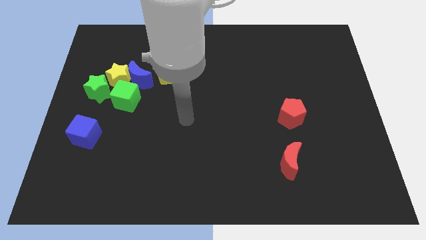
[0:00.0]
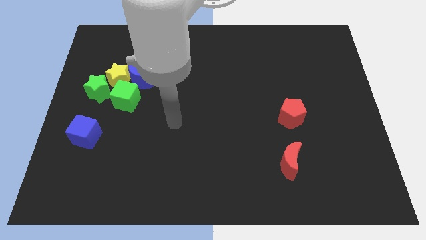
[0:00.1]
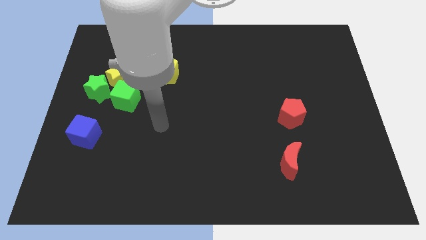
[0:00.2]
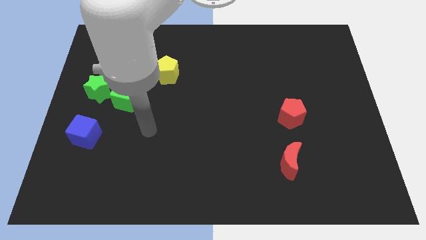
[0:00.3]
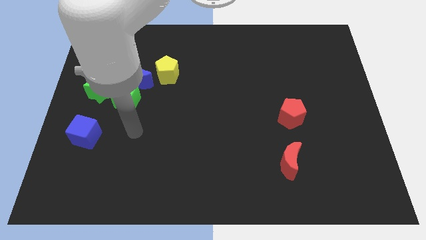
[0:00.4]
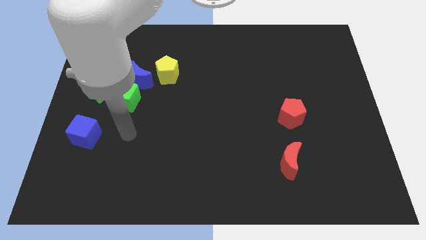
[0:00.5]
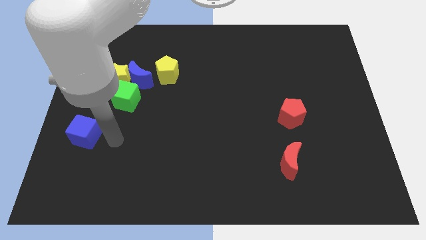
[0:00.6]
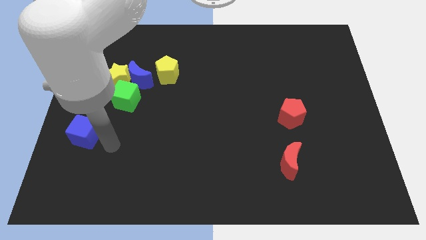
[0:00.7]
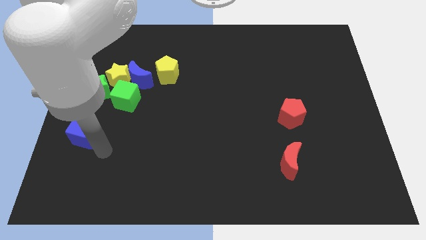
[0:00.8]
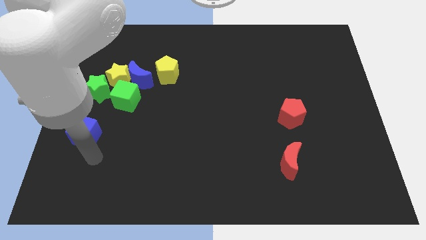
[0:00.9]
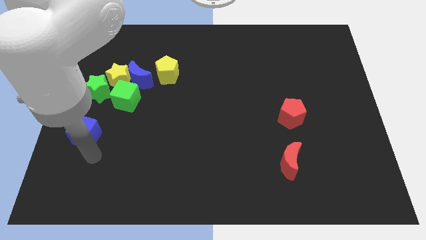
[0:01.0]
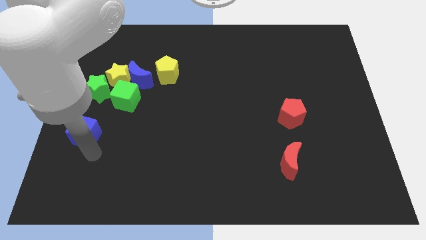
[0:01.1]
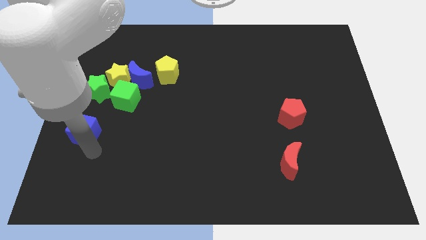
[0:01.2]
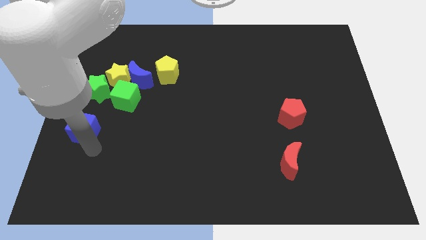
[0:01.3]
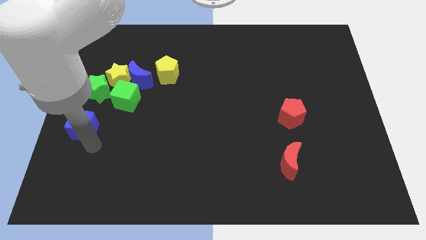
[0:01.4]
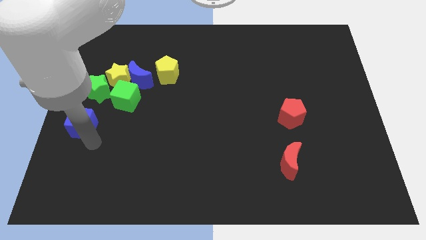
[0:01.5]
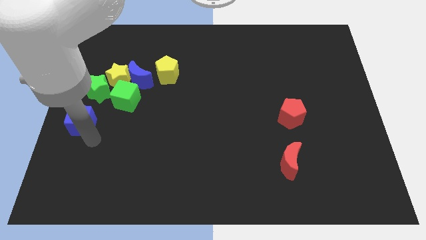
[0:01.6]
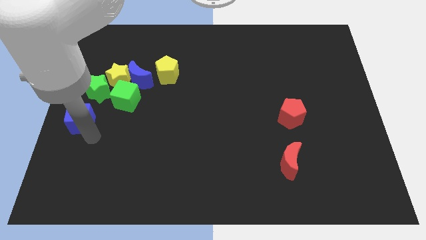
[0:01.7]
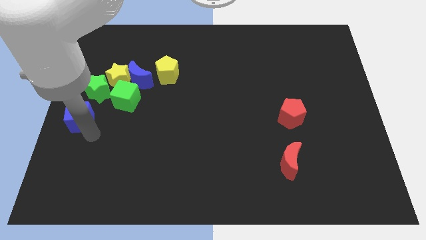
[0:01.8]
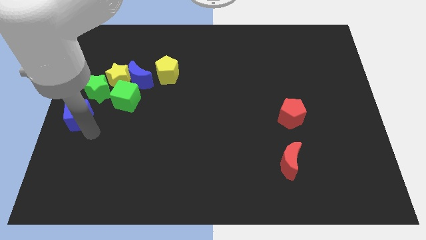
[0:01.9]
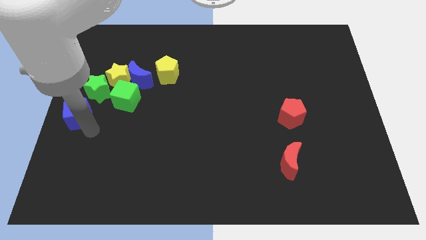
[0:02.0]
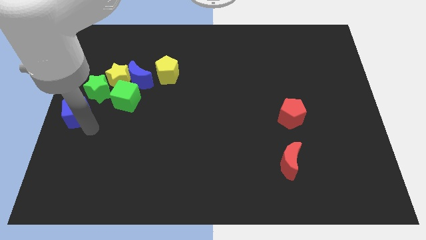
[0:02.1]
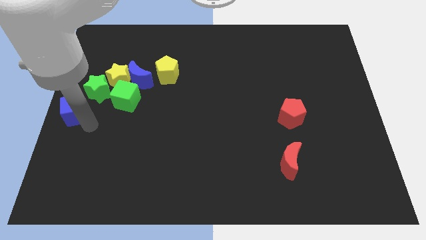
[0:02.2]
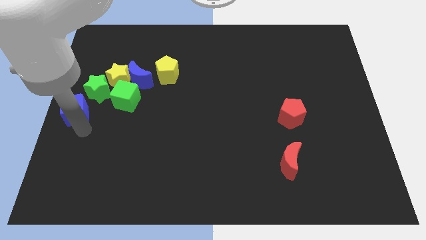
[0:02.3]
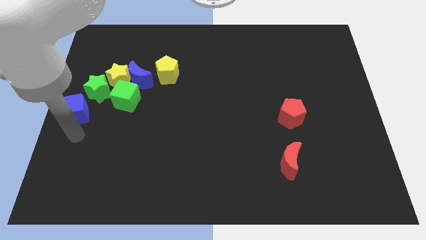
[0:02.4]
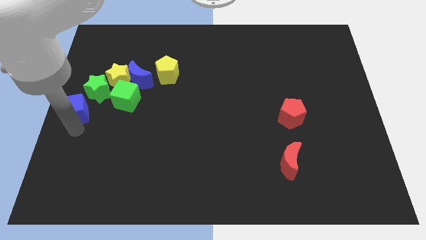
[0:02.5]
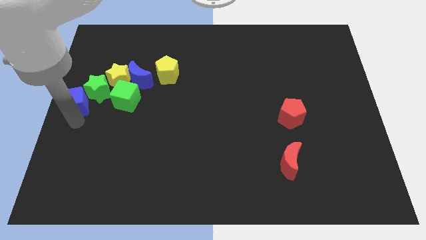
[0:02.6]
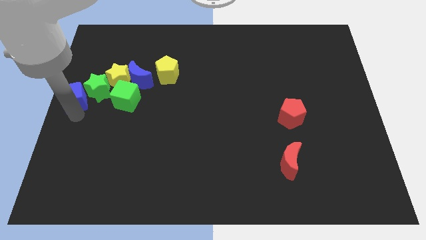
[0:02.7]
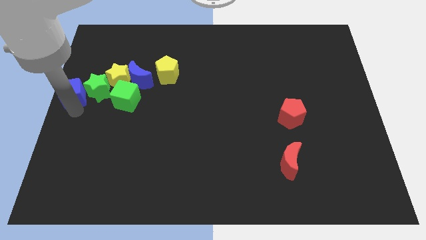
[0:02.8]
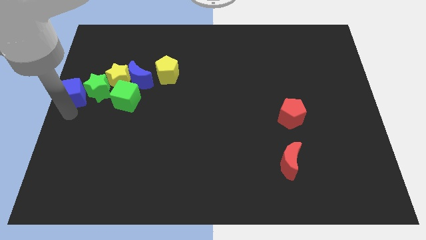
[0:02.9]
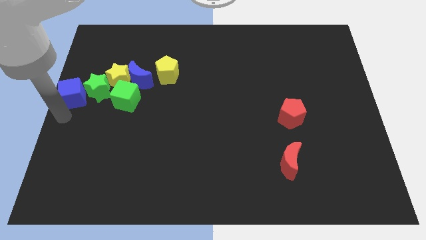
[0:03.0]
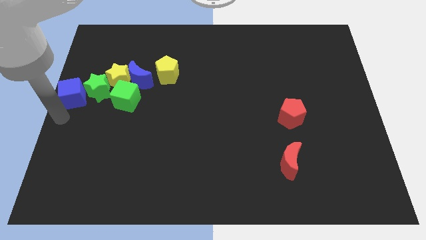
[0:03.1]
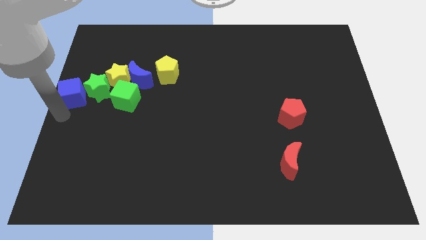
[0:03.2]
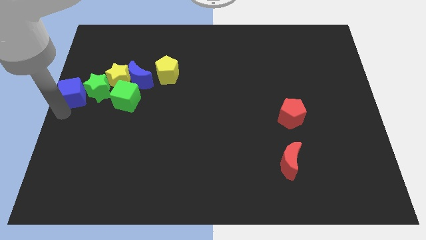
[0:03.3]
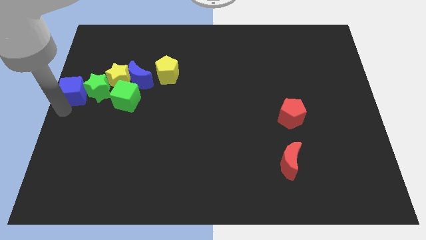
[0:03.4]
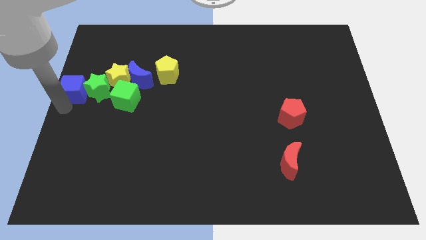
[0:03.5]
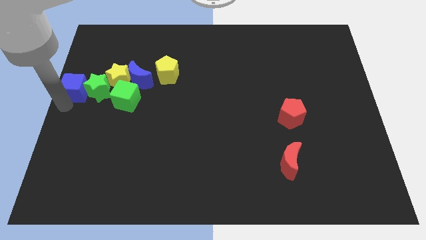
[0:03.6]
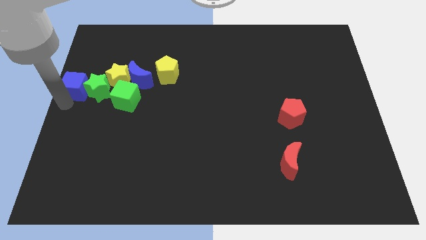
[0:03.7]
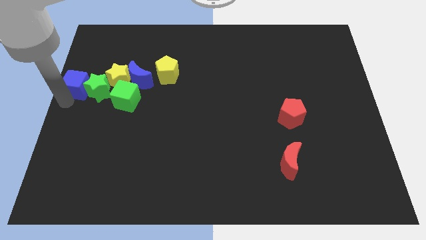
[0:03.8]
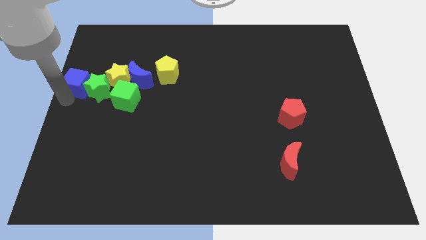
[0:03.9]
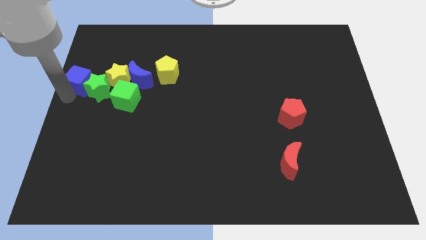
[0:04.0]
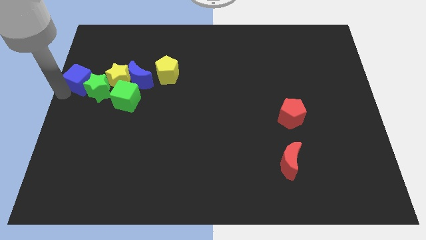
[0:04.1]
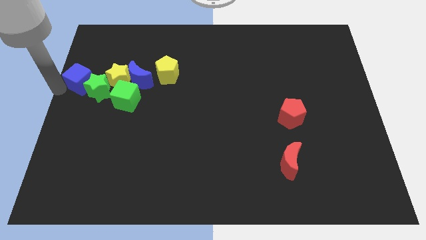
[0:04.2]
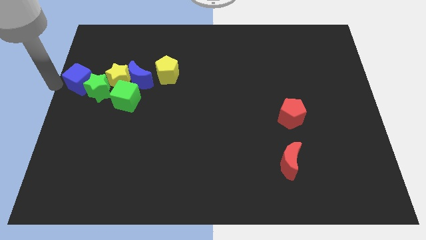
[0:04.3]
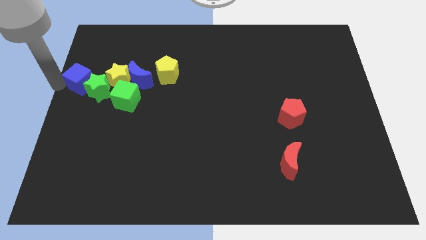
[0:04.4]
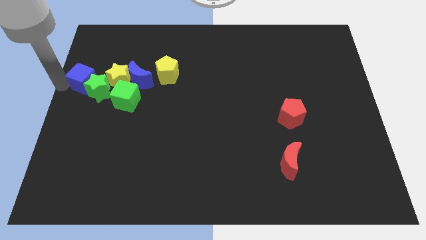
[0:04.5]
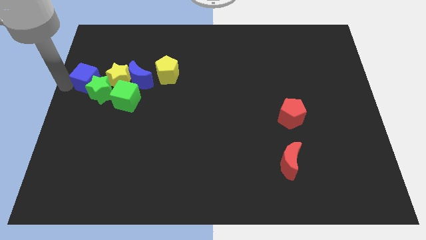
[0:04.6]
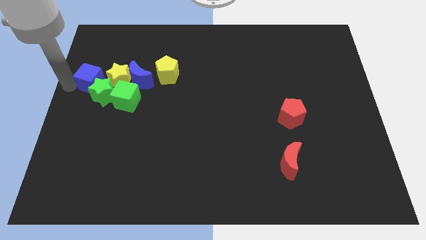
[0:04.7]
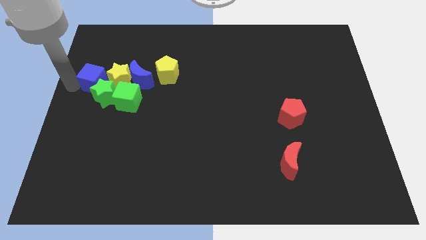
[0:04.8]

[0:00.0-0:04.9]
slide the blue cube to the yellow star

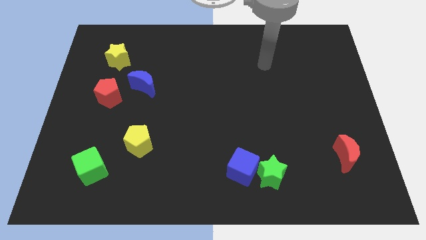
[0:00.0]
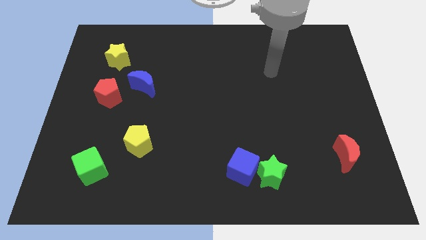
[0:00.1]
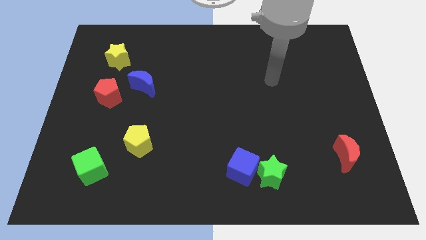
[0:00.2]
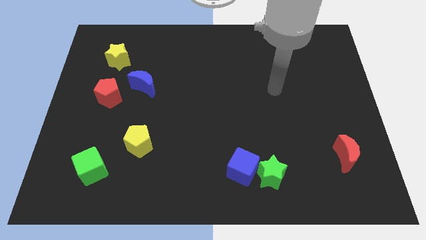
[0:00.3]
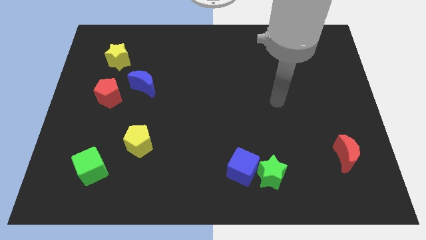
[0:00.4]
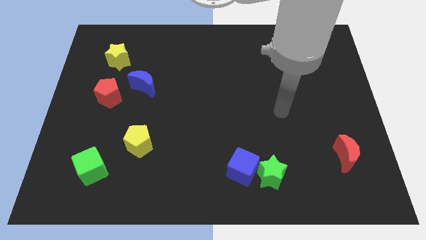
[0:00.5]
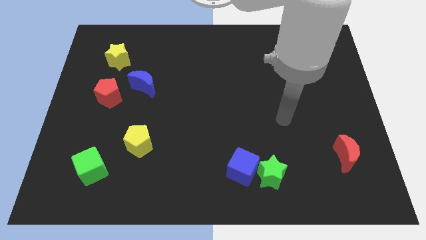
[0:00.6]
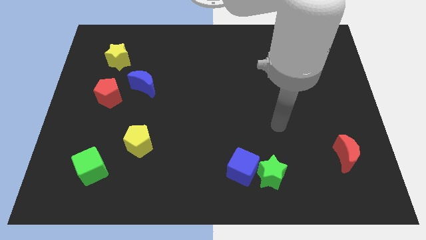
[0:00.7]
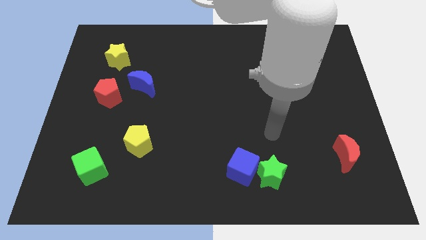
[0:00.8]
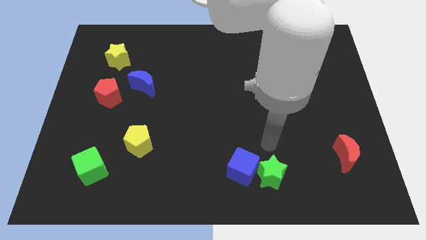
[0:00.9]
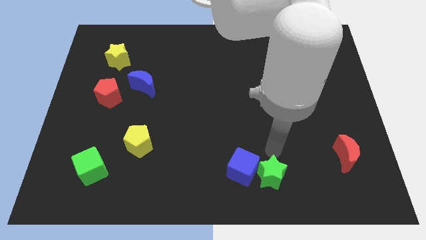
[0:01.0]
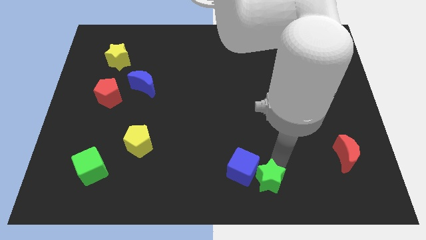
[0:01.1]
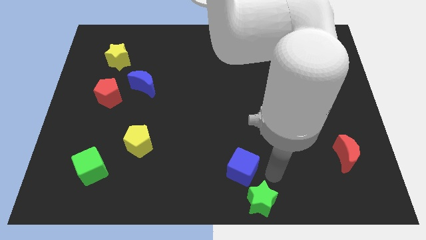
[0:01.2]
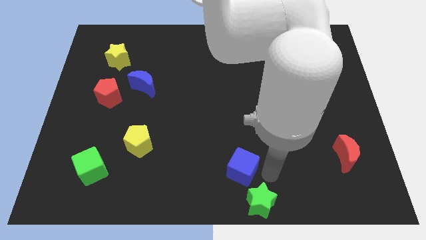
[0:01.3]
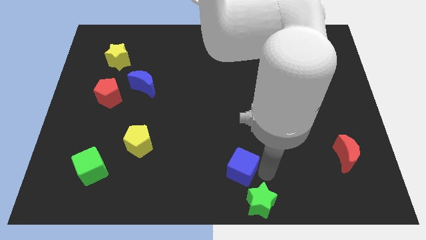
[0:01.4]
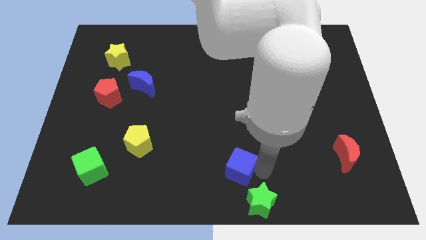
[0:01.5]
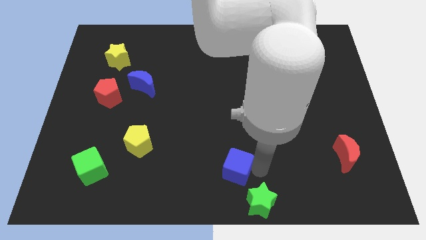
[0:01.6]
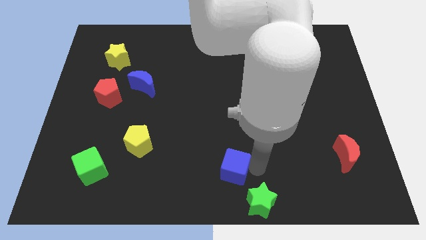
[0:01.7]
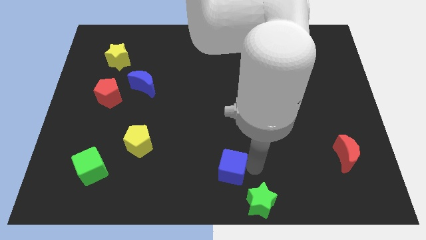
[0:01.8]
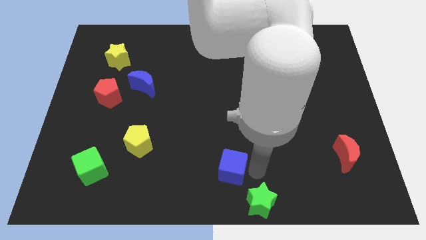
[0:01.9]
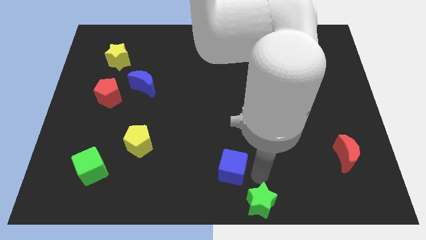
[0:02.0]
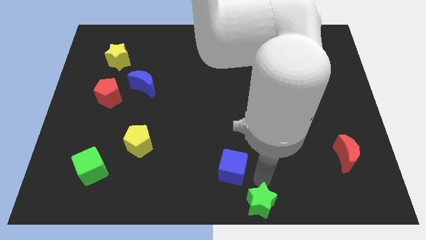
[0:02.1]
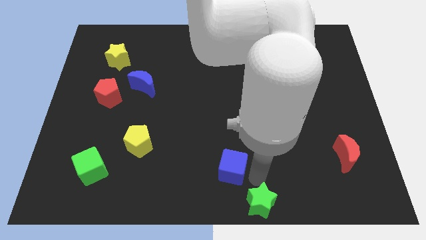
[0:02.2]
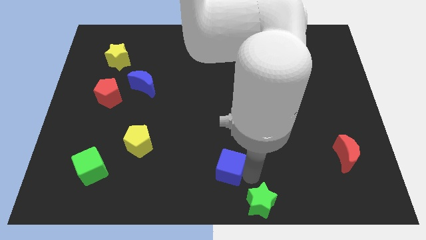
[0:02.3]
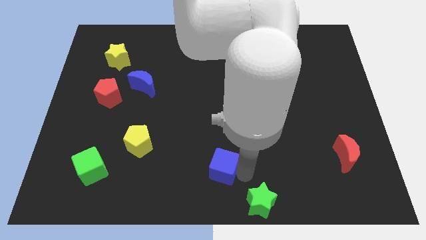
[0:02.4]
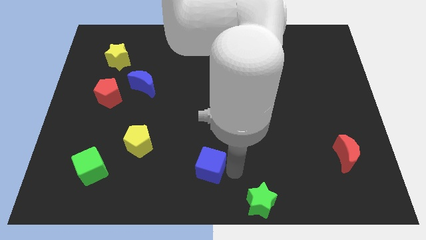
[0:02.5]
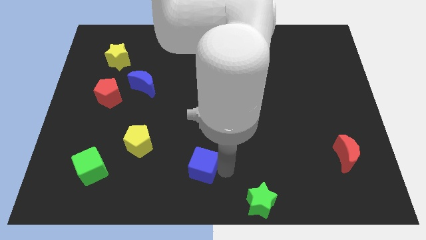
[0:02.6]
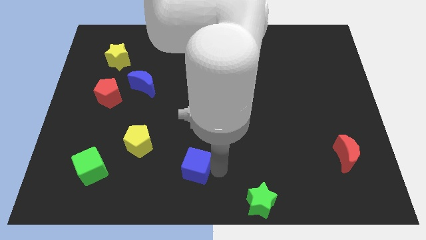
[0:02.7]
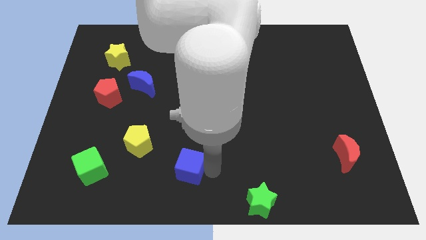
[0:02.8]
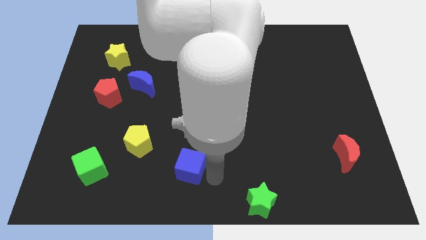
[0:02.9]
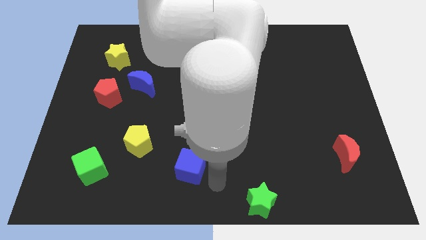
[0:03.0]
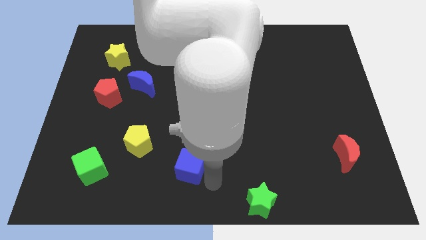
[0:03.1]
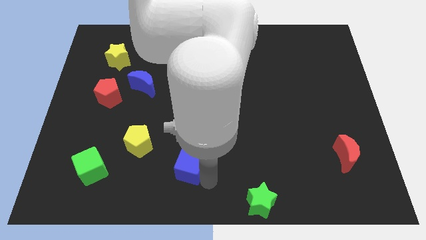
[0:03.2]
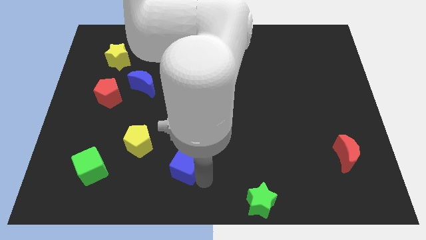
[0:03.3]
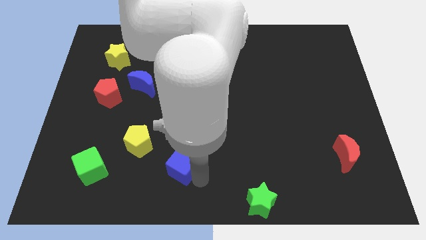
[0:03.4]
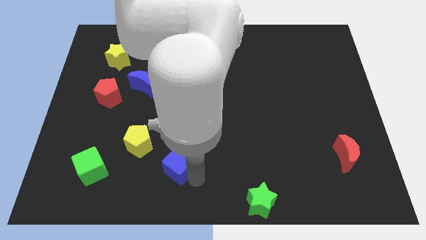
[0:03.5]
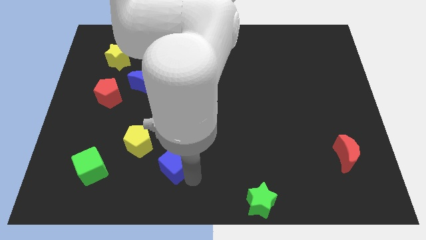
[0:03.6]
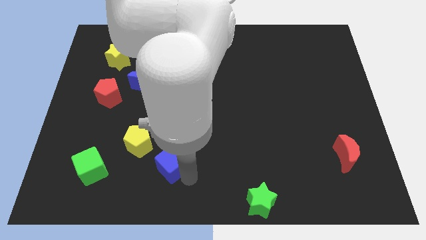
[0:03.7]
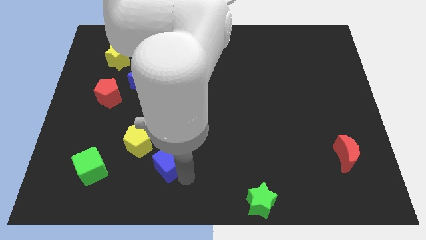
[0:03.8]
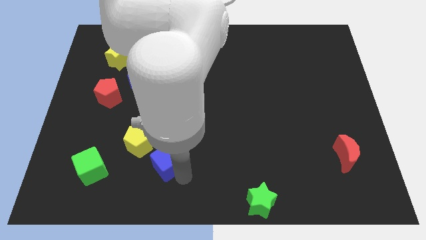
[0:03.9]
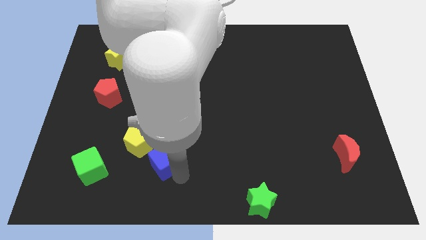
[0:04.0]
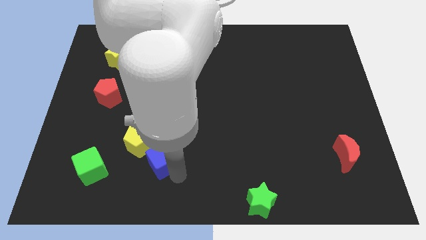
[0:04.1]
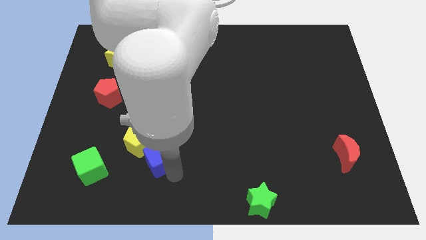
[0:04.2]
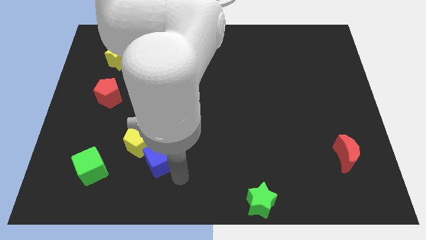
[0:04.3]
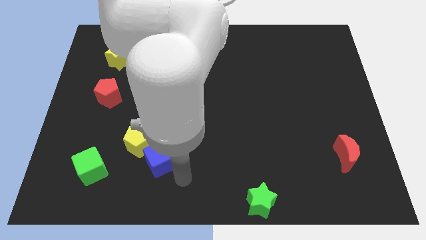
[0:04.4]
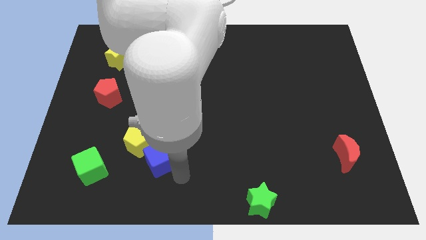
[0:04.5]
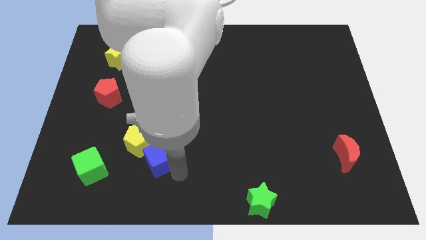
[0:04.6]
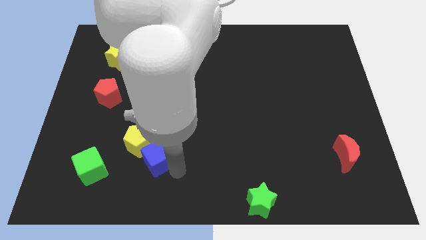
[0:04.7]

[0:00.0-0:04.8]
put the blue cube close to the yellow pentagon
